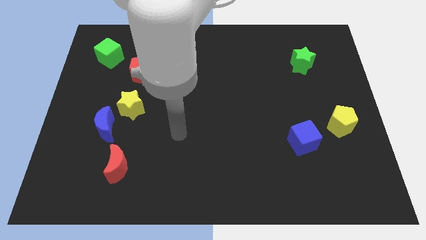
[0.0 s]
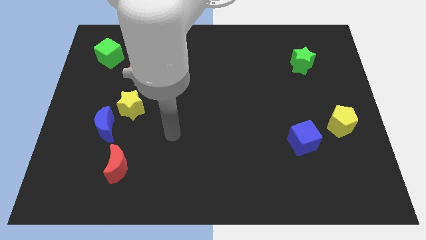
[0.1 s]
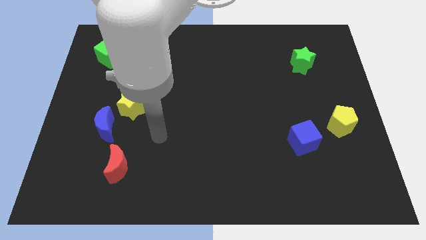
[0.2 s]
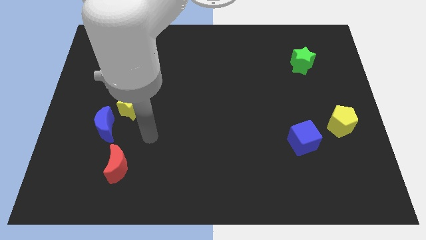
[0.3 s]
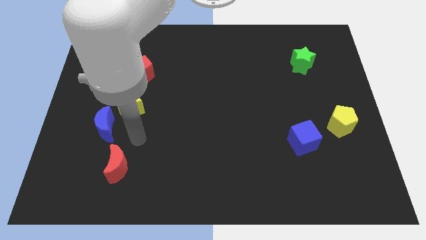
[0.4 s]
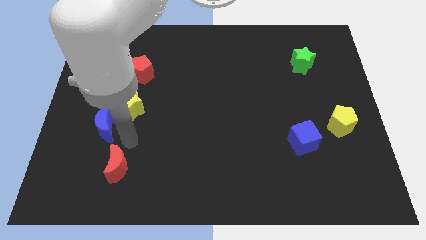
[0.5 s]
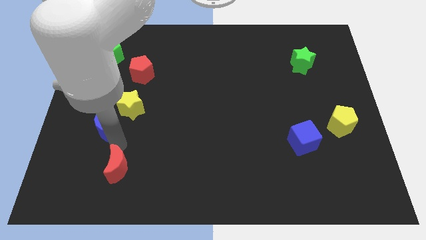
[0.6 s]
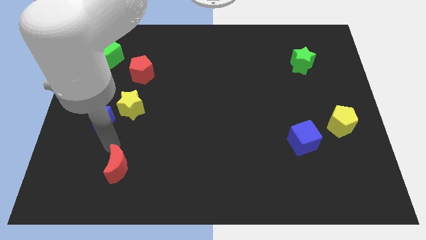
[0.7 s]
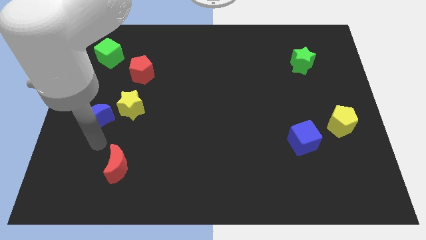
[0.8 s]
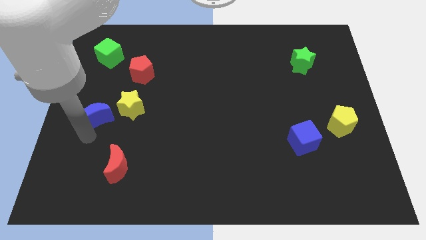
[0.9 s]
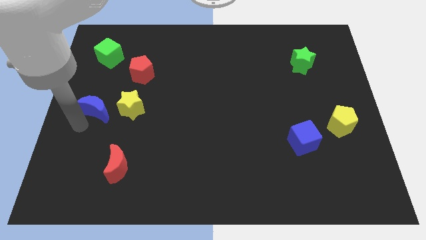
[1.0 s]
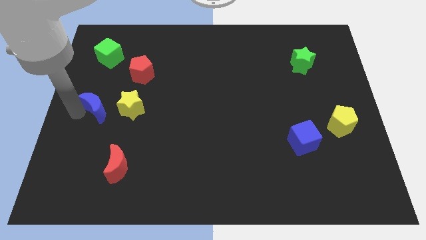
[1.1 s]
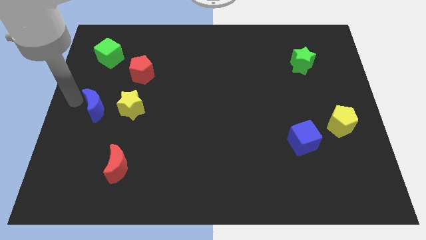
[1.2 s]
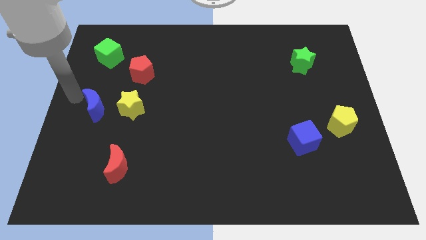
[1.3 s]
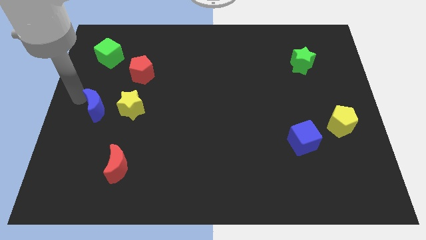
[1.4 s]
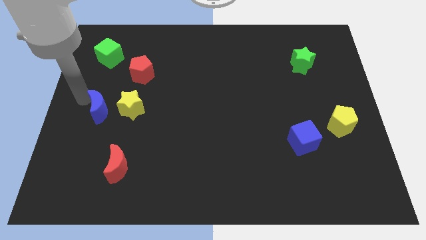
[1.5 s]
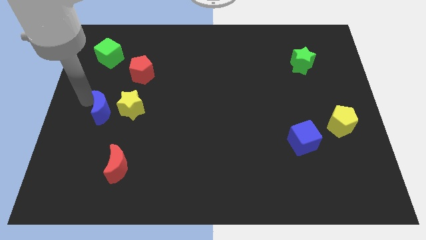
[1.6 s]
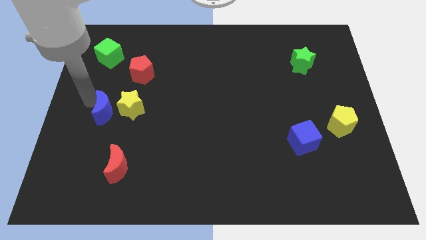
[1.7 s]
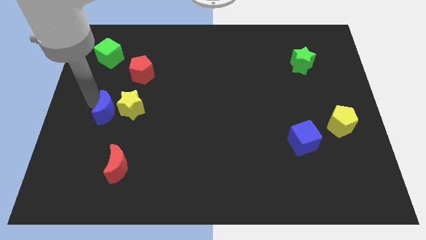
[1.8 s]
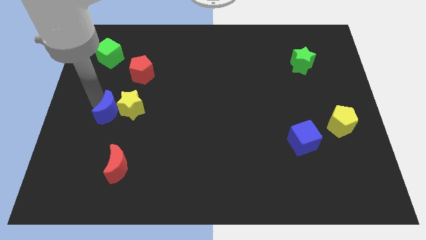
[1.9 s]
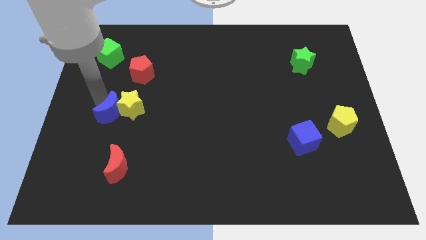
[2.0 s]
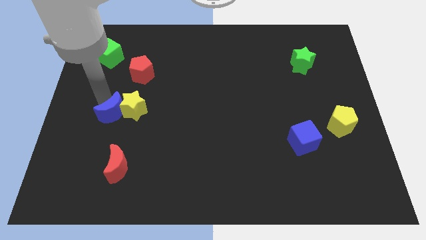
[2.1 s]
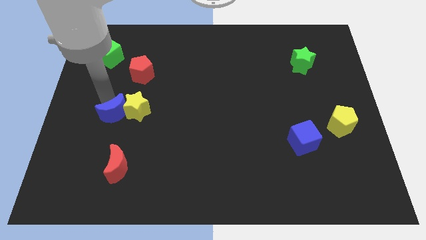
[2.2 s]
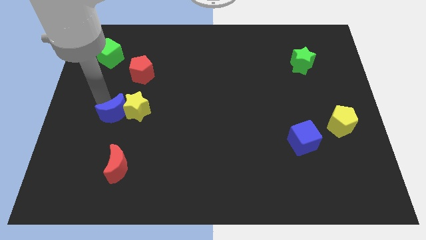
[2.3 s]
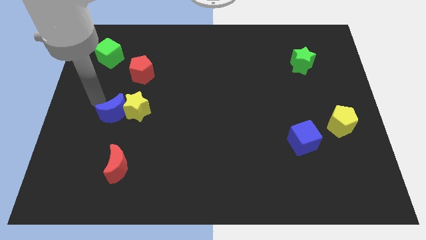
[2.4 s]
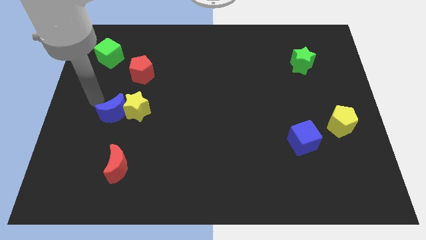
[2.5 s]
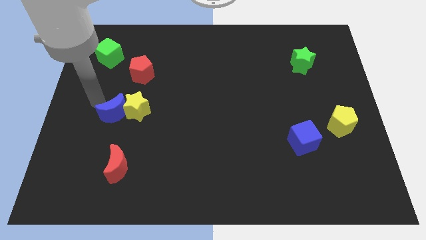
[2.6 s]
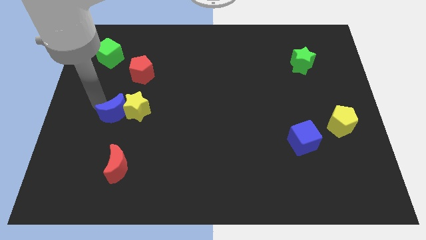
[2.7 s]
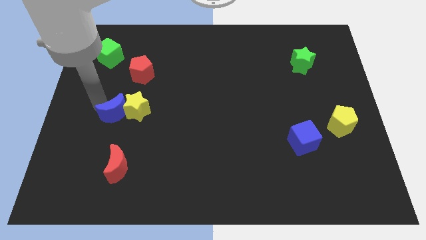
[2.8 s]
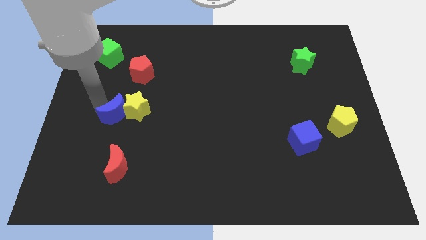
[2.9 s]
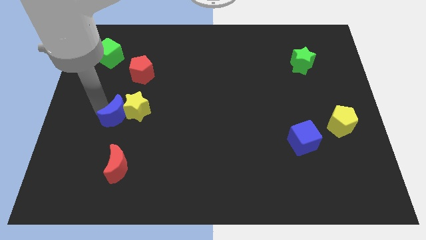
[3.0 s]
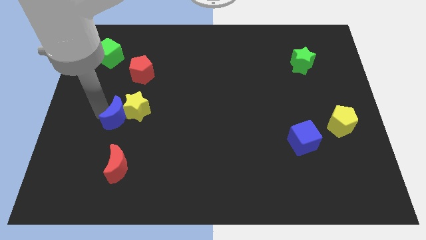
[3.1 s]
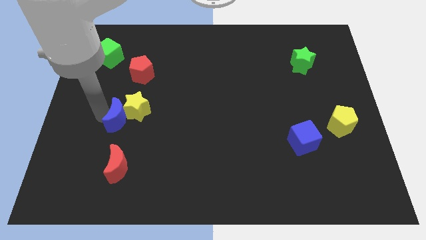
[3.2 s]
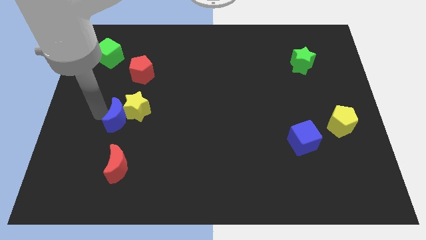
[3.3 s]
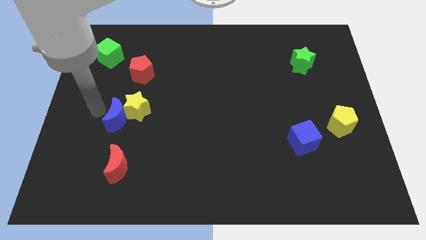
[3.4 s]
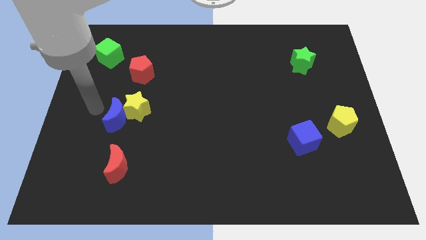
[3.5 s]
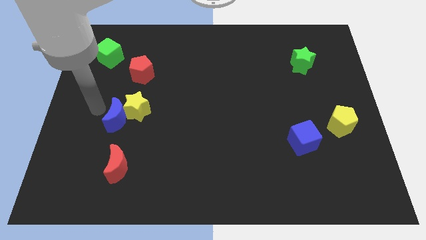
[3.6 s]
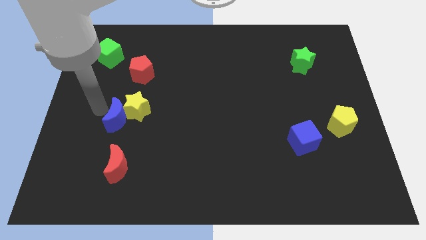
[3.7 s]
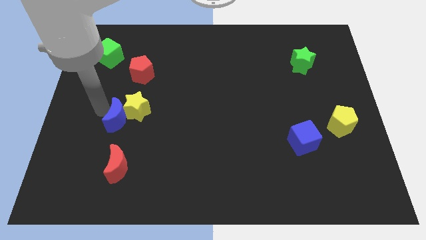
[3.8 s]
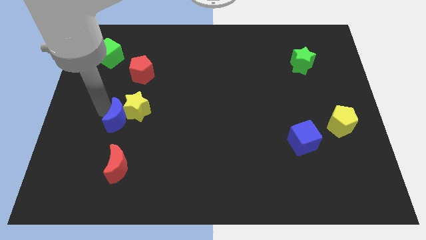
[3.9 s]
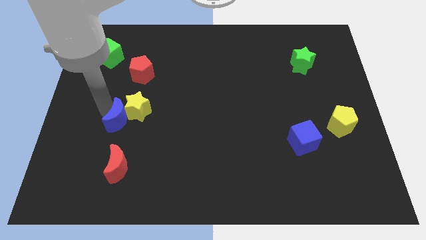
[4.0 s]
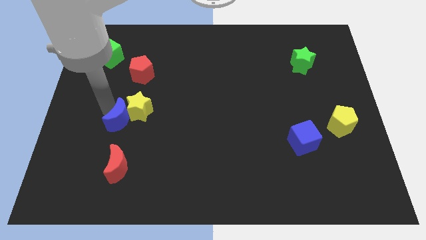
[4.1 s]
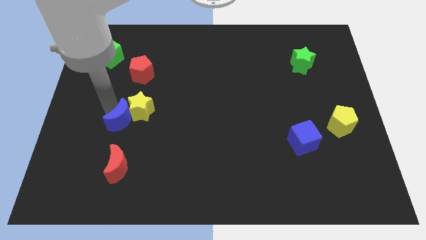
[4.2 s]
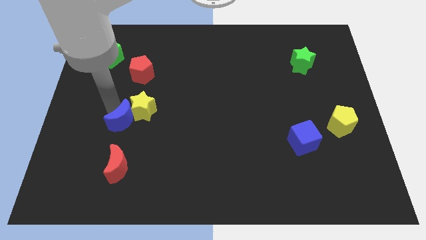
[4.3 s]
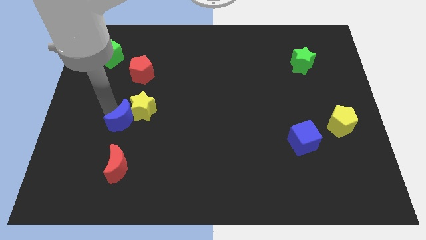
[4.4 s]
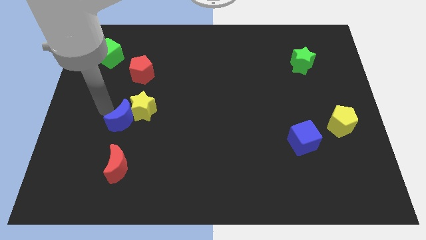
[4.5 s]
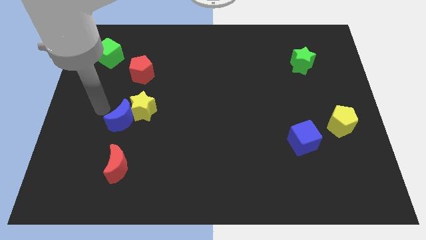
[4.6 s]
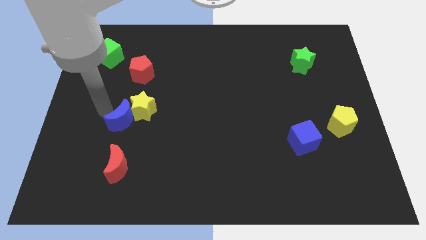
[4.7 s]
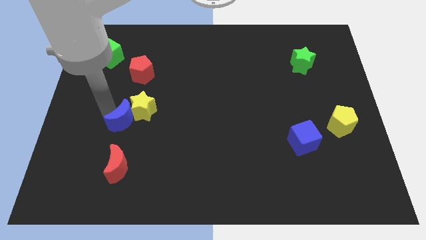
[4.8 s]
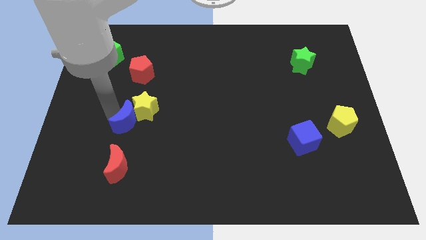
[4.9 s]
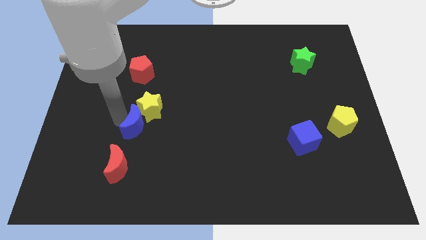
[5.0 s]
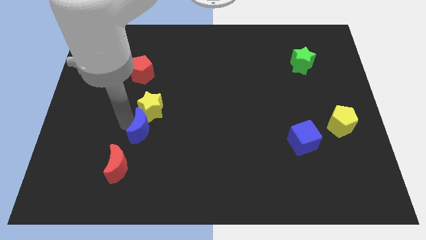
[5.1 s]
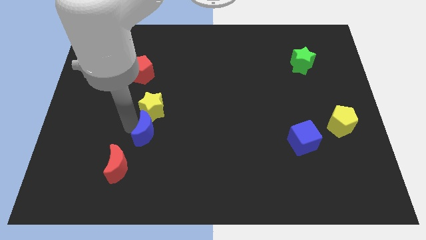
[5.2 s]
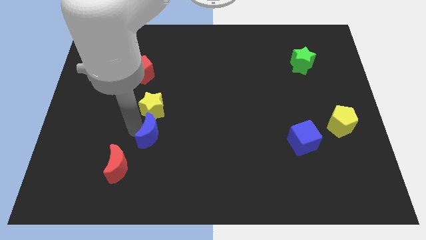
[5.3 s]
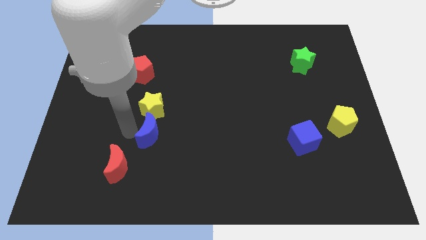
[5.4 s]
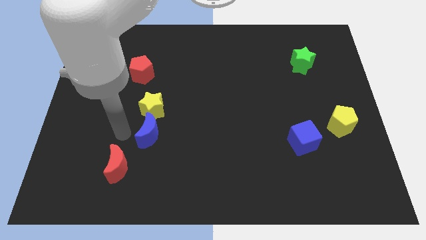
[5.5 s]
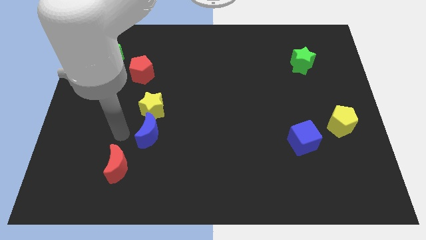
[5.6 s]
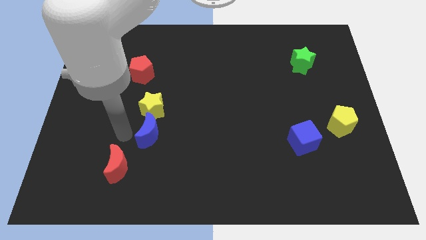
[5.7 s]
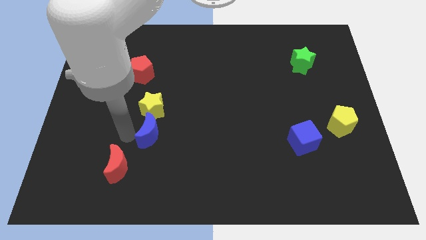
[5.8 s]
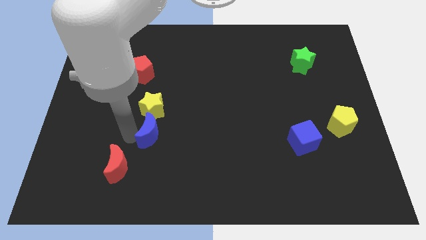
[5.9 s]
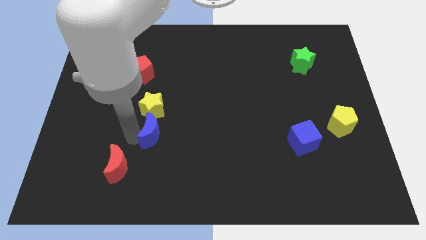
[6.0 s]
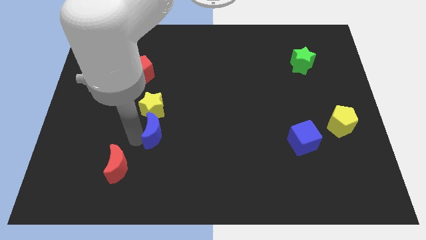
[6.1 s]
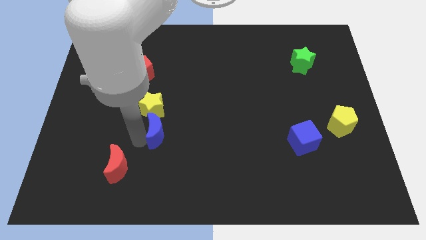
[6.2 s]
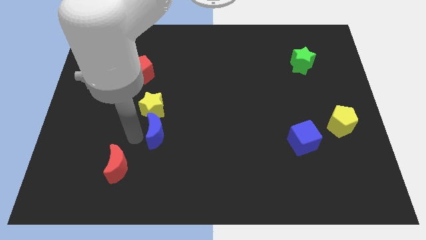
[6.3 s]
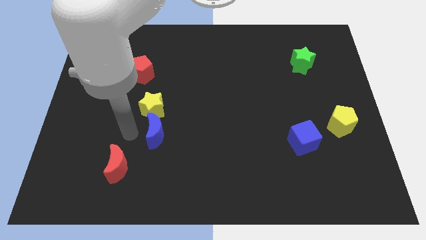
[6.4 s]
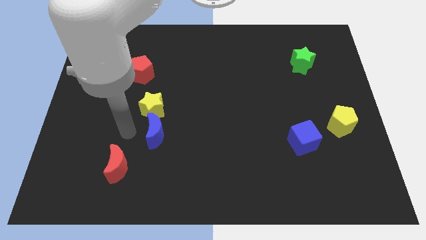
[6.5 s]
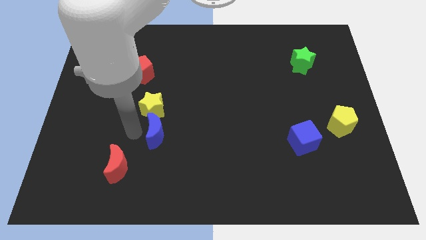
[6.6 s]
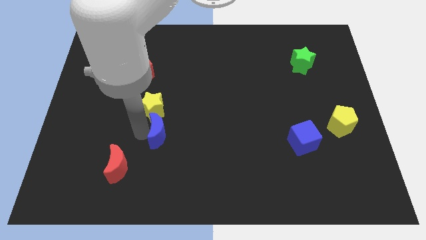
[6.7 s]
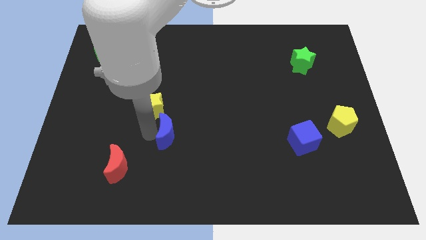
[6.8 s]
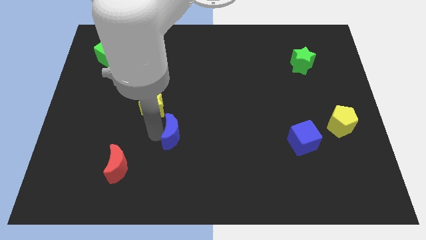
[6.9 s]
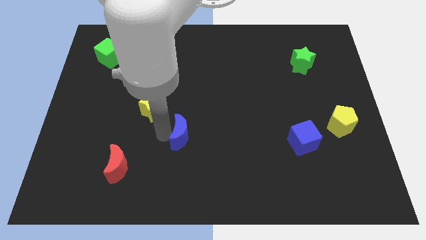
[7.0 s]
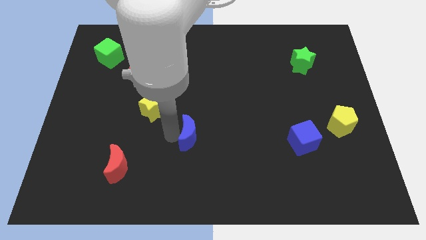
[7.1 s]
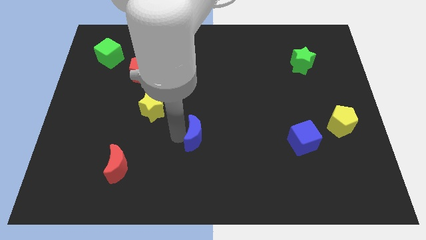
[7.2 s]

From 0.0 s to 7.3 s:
move the blue moon to the right

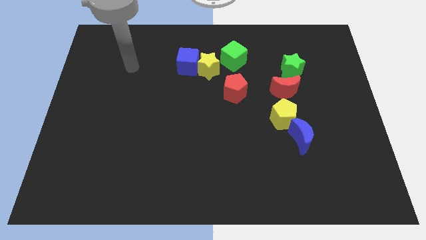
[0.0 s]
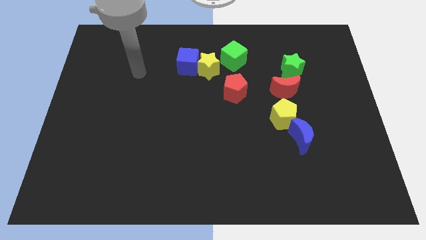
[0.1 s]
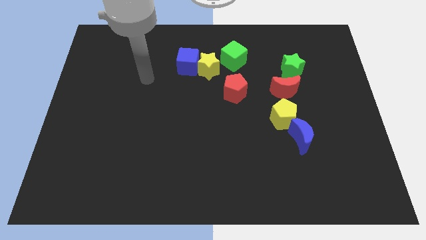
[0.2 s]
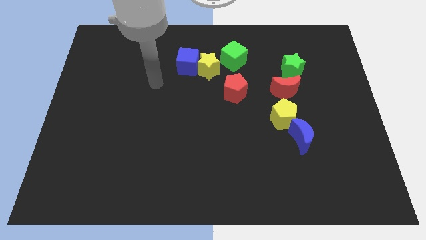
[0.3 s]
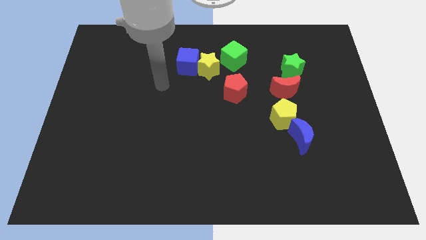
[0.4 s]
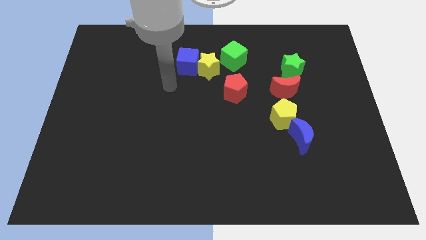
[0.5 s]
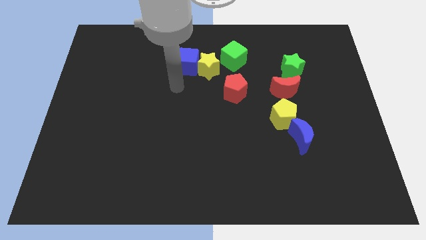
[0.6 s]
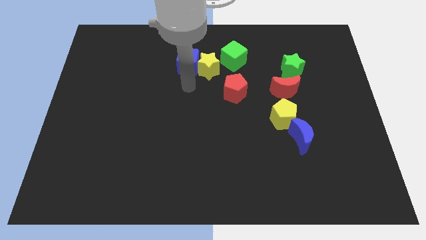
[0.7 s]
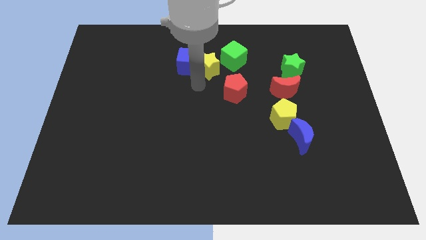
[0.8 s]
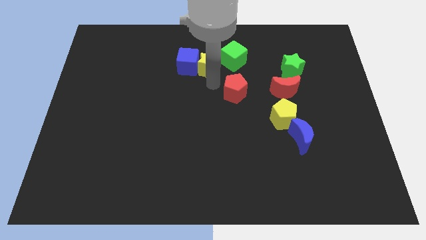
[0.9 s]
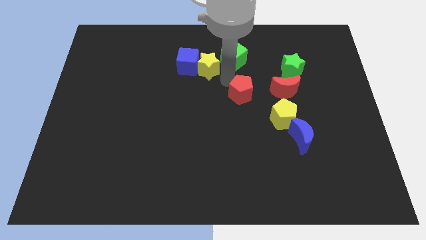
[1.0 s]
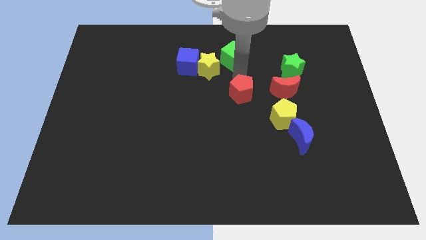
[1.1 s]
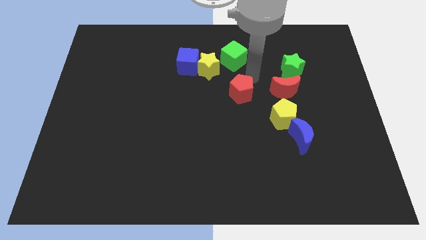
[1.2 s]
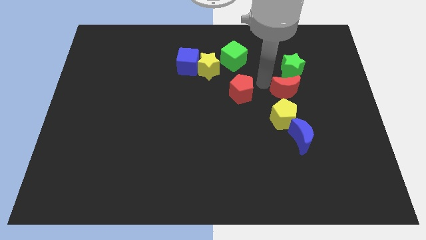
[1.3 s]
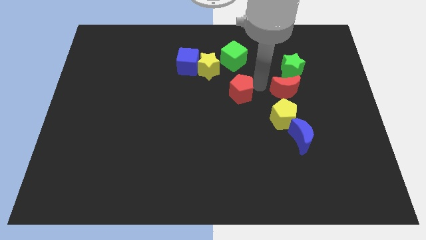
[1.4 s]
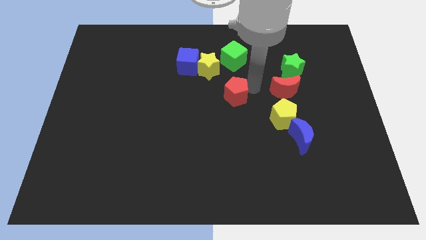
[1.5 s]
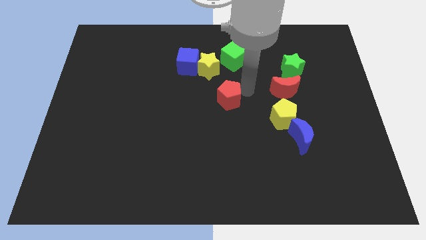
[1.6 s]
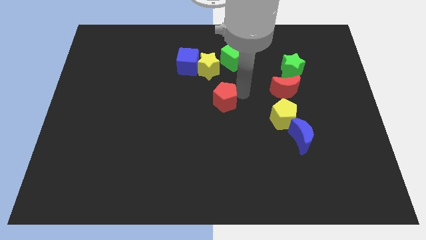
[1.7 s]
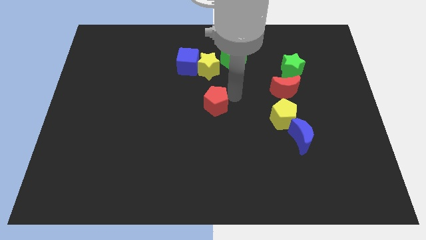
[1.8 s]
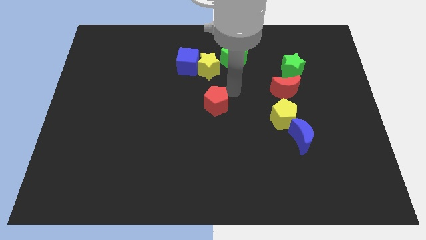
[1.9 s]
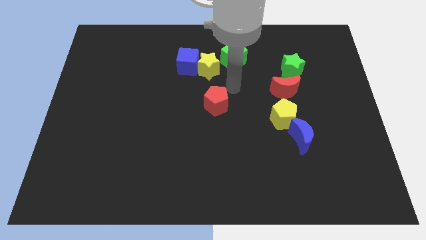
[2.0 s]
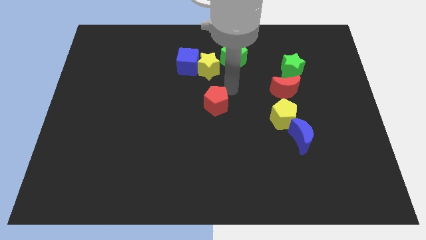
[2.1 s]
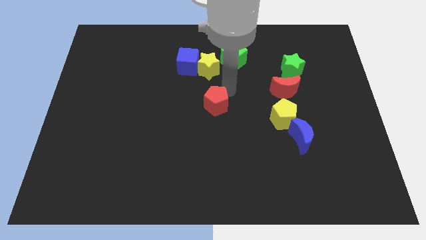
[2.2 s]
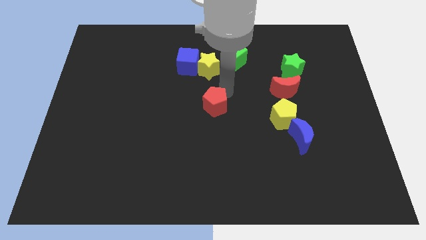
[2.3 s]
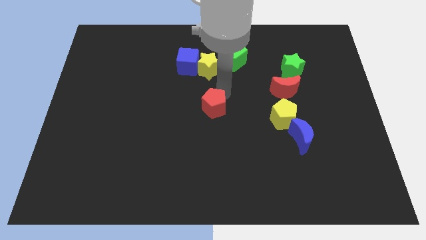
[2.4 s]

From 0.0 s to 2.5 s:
slide the red pentagon a little down and to the left diagonally
